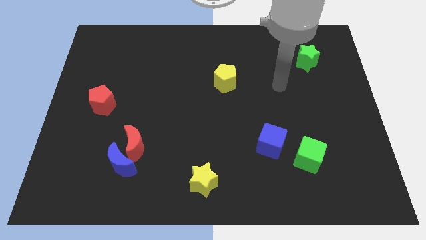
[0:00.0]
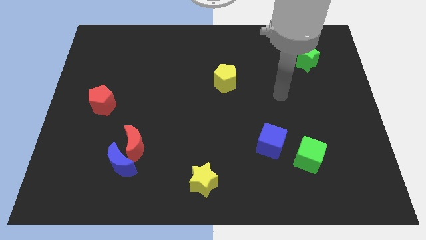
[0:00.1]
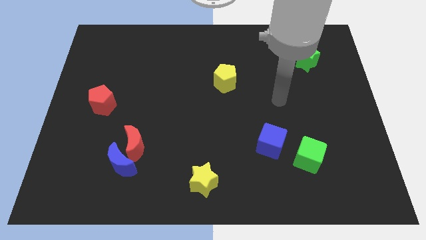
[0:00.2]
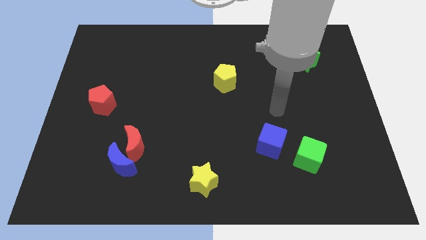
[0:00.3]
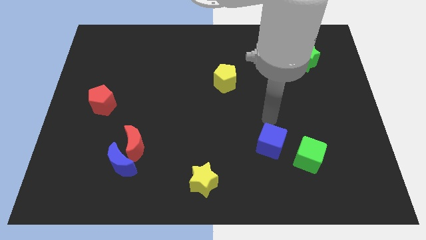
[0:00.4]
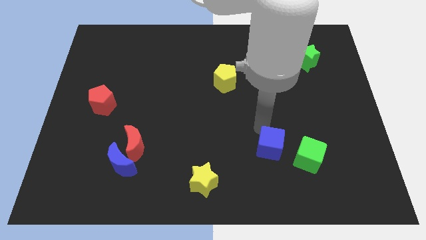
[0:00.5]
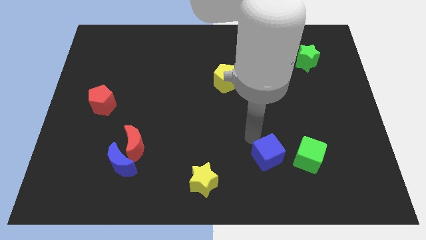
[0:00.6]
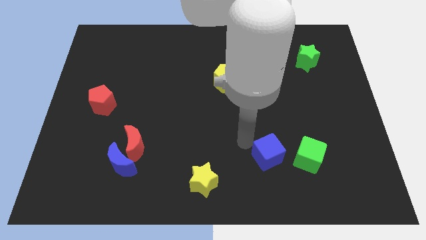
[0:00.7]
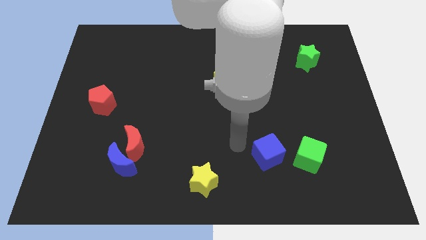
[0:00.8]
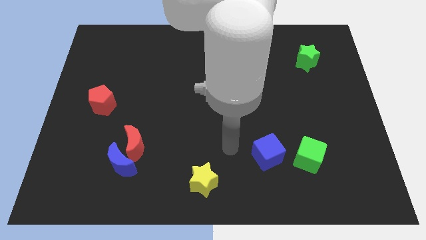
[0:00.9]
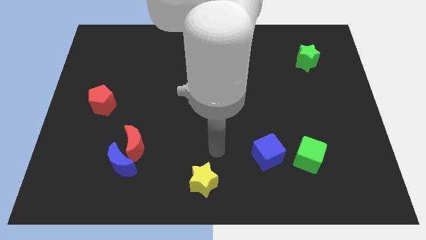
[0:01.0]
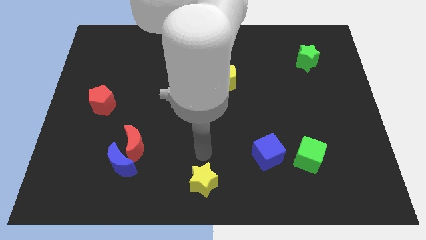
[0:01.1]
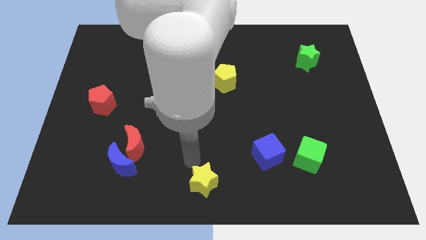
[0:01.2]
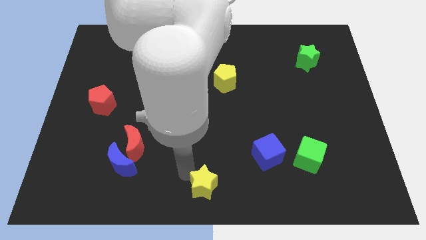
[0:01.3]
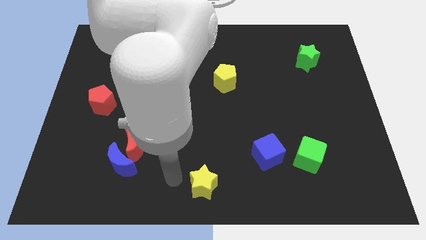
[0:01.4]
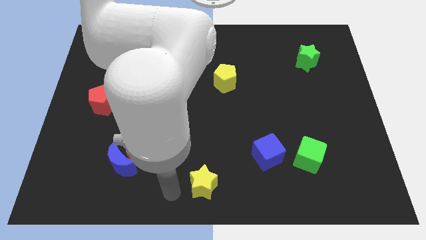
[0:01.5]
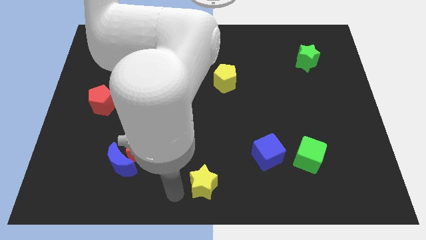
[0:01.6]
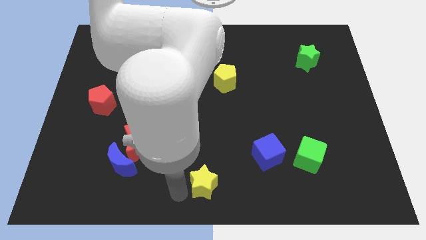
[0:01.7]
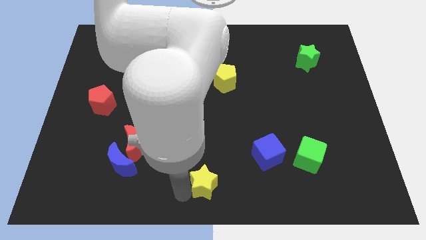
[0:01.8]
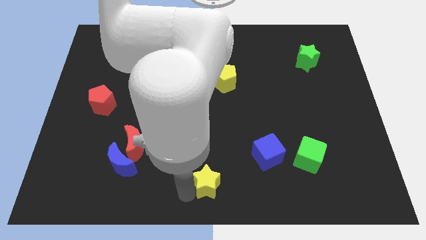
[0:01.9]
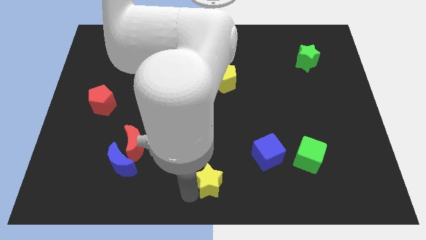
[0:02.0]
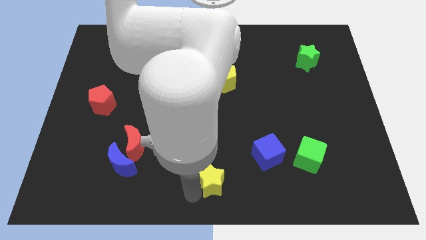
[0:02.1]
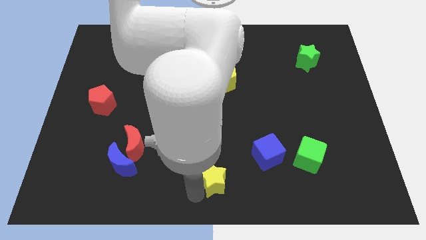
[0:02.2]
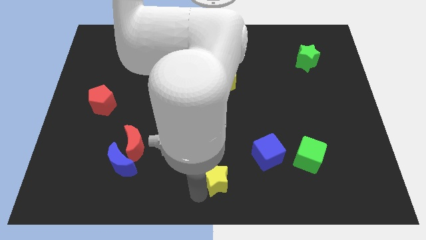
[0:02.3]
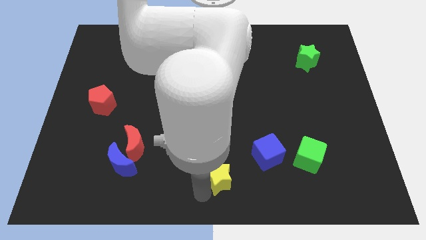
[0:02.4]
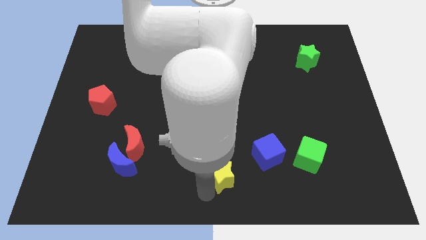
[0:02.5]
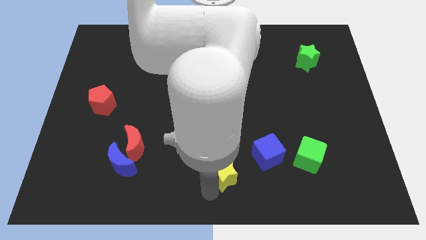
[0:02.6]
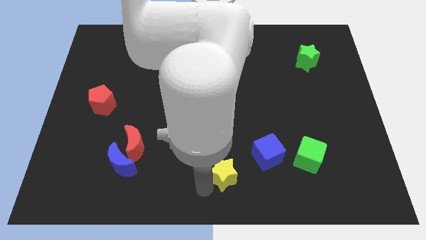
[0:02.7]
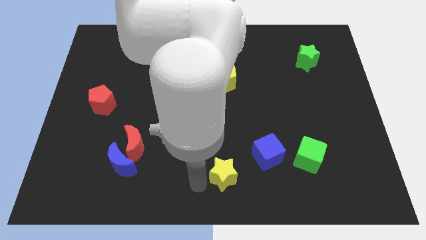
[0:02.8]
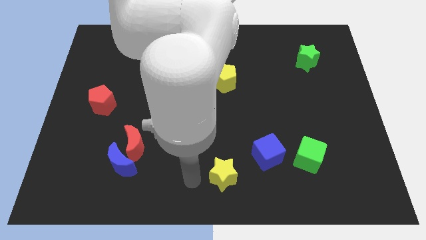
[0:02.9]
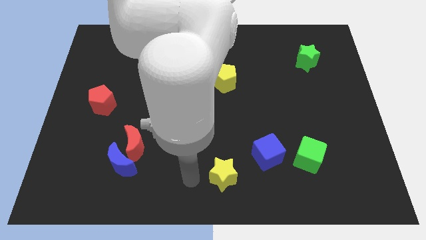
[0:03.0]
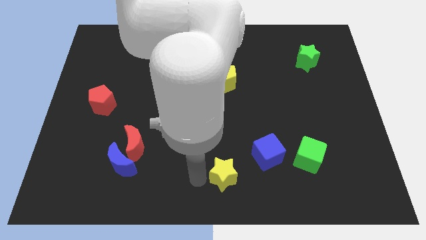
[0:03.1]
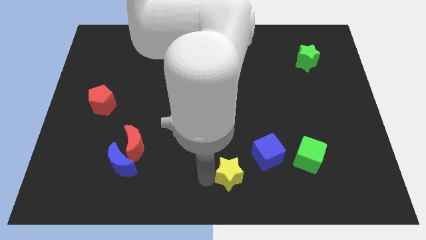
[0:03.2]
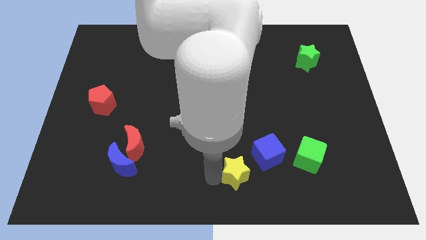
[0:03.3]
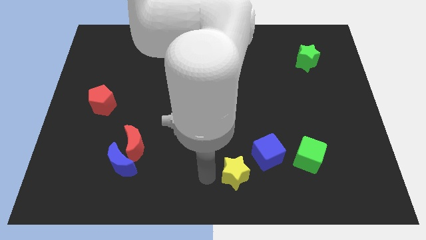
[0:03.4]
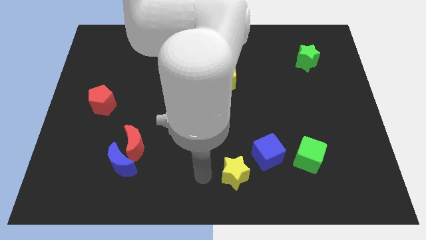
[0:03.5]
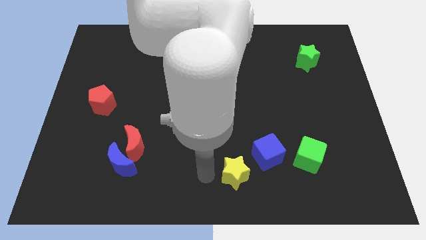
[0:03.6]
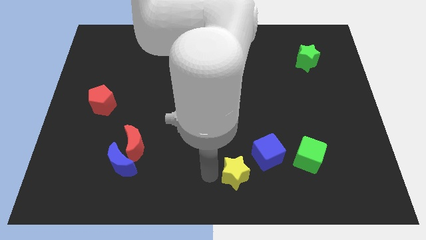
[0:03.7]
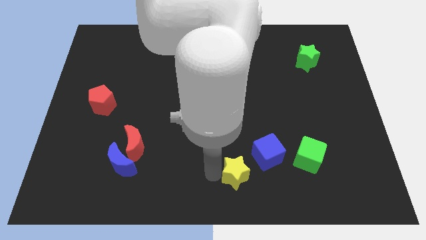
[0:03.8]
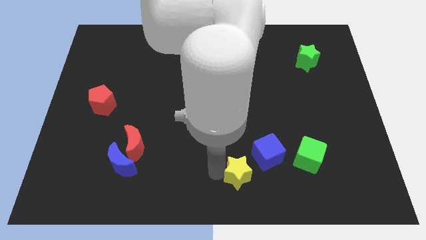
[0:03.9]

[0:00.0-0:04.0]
slide the yellow star right a little

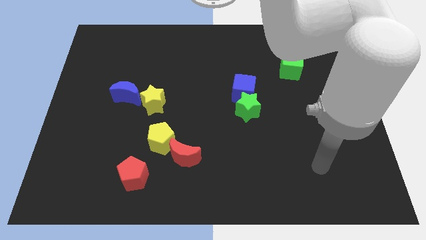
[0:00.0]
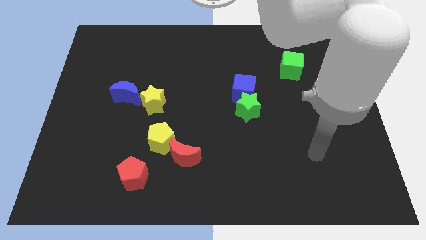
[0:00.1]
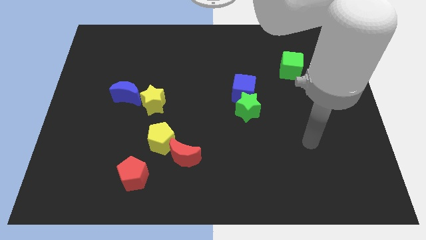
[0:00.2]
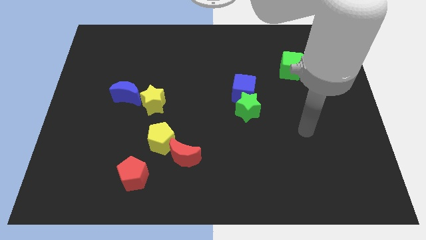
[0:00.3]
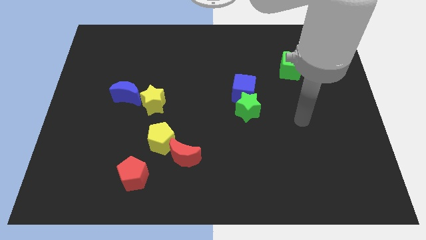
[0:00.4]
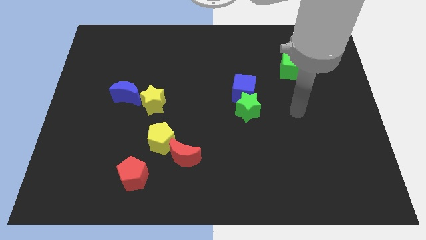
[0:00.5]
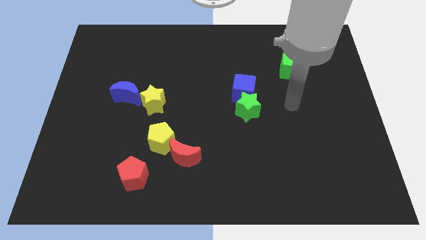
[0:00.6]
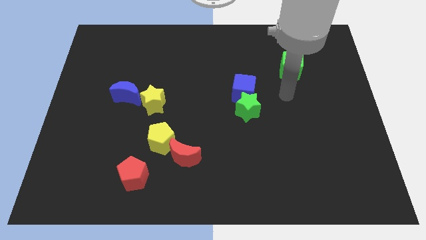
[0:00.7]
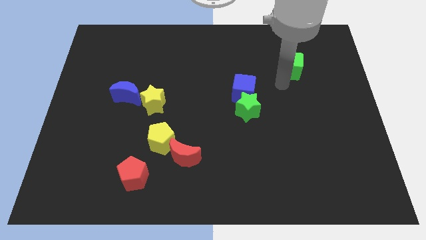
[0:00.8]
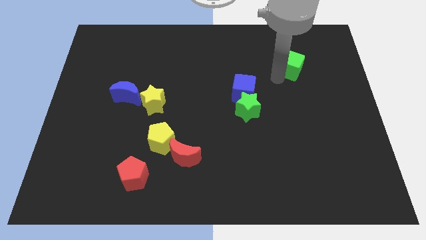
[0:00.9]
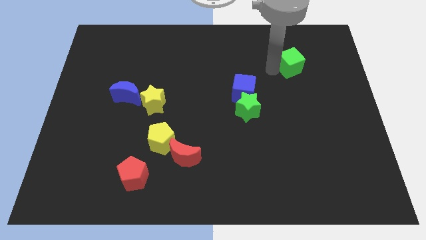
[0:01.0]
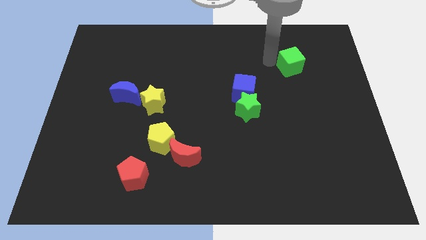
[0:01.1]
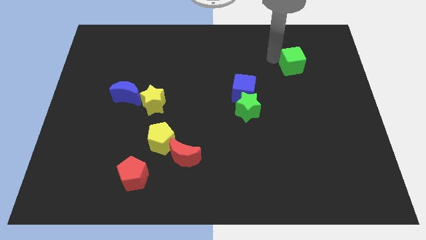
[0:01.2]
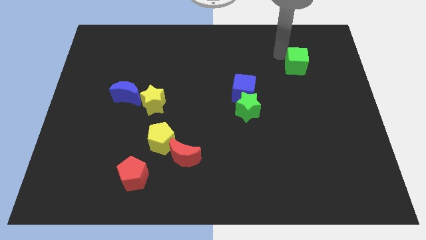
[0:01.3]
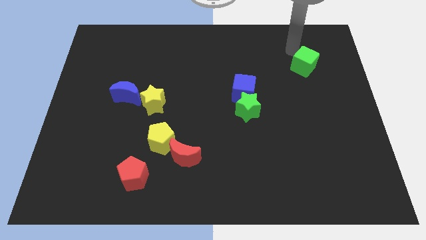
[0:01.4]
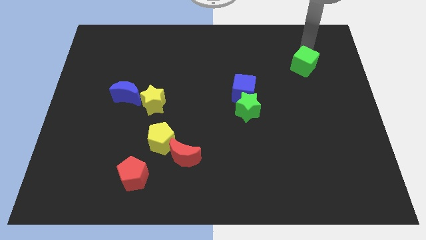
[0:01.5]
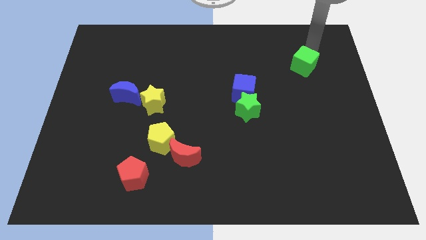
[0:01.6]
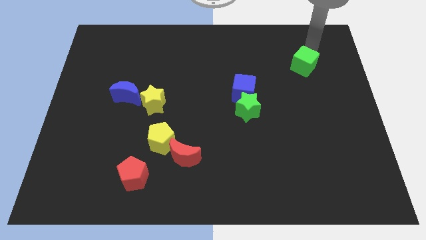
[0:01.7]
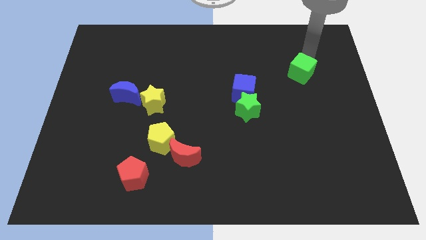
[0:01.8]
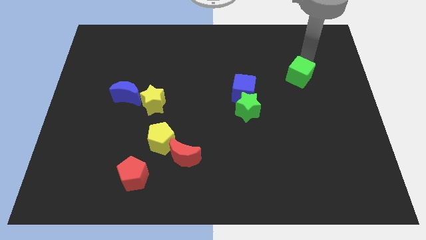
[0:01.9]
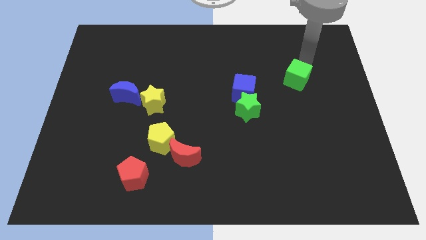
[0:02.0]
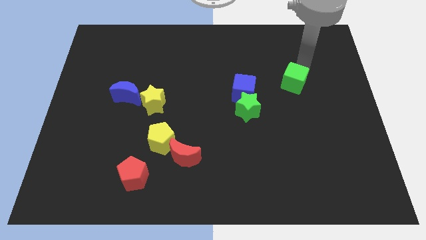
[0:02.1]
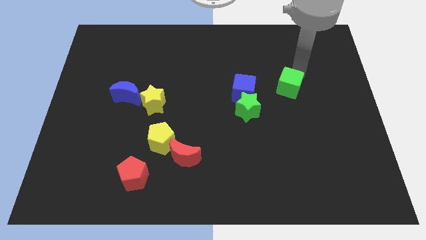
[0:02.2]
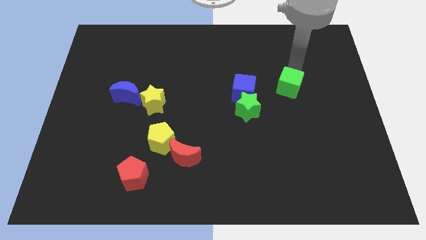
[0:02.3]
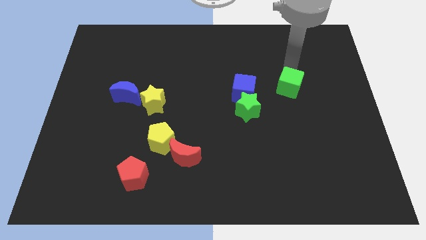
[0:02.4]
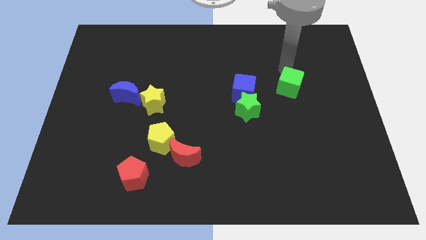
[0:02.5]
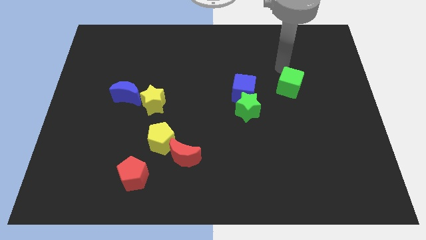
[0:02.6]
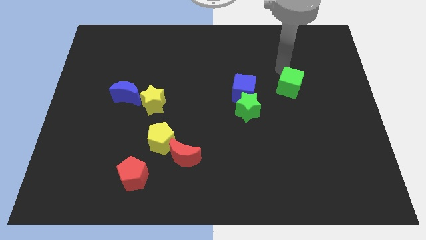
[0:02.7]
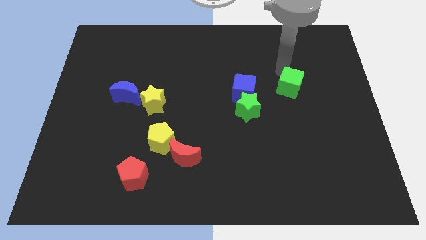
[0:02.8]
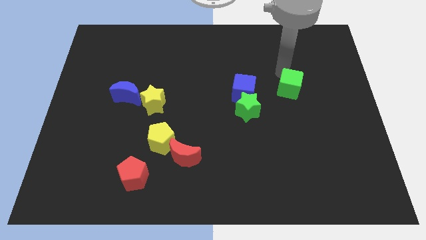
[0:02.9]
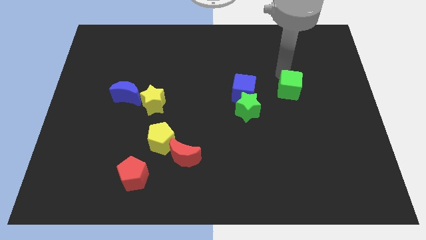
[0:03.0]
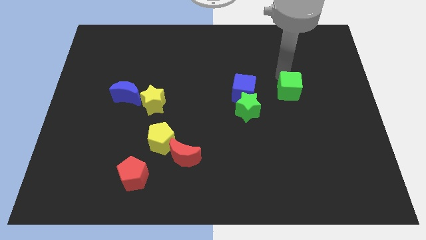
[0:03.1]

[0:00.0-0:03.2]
move the green cube somewhat downwards

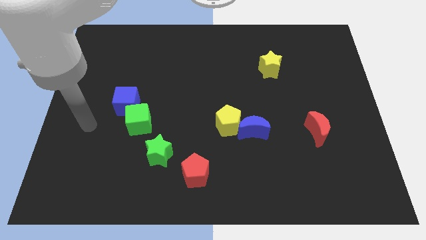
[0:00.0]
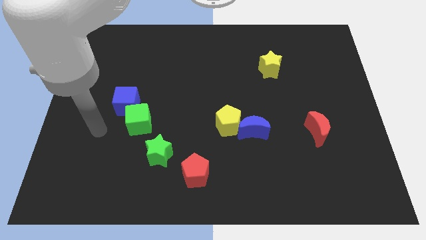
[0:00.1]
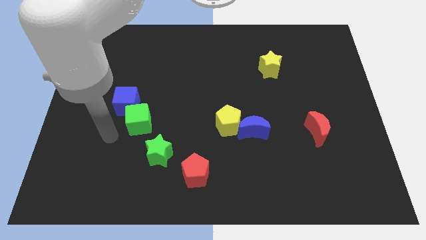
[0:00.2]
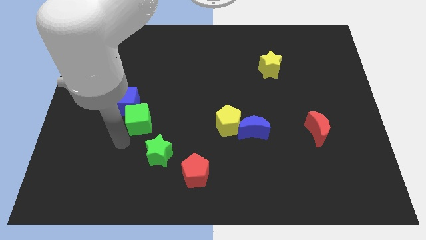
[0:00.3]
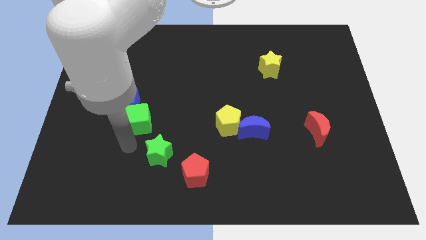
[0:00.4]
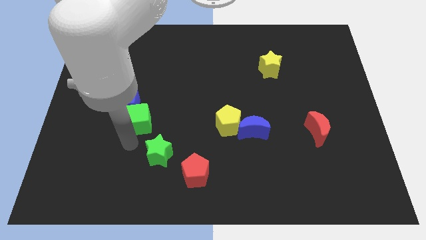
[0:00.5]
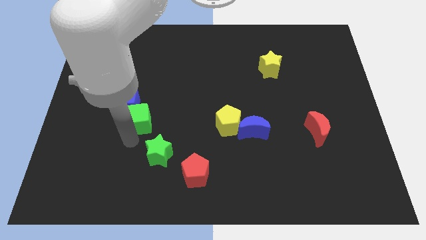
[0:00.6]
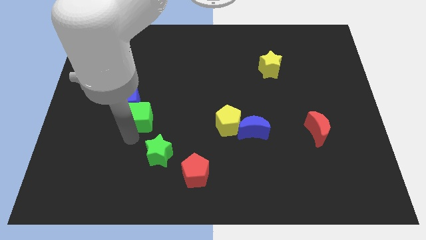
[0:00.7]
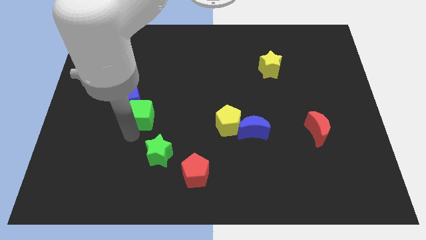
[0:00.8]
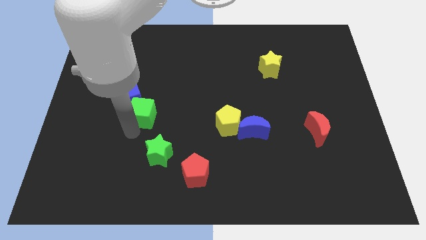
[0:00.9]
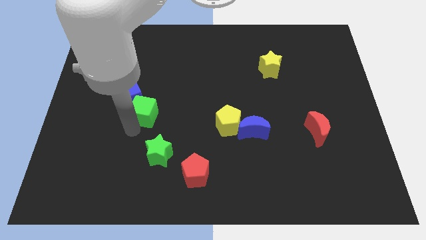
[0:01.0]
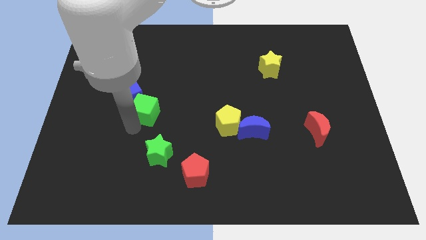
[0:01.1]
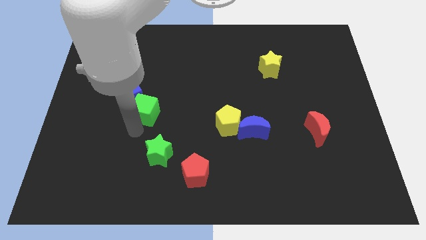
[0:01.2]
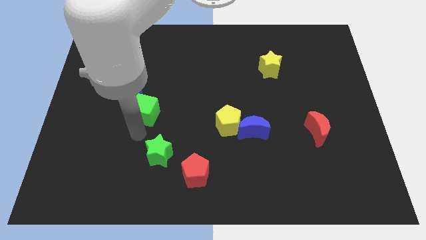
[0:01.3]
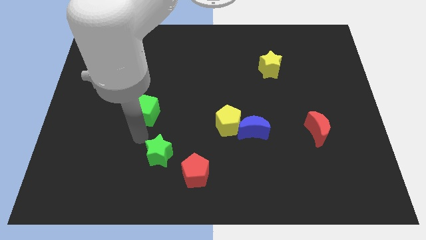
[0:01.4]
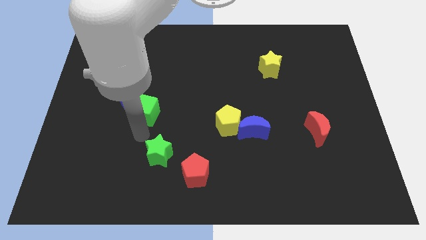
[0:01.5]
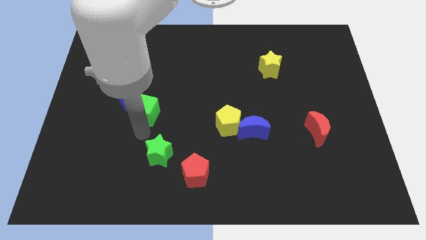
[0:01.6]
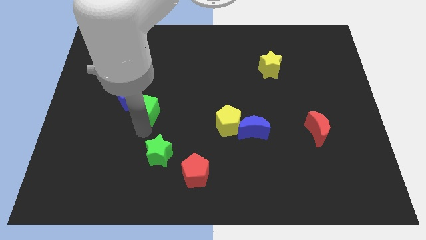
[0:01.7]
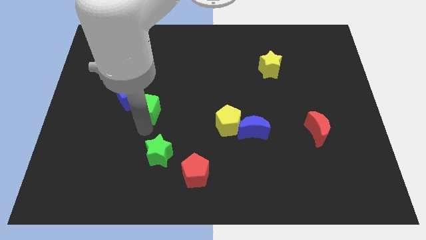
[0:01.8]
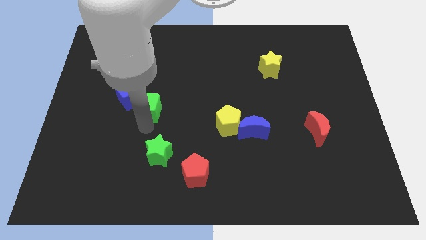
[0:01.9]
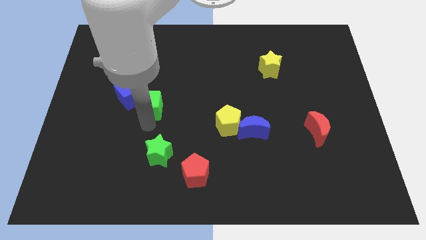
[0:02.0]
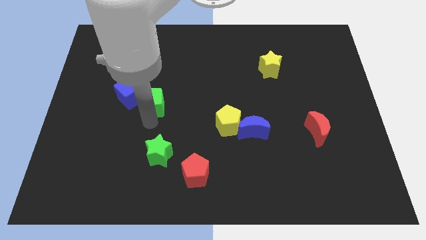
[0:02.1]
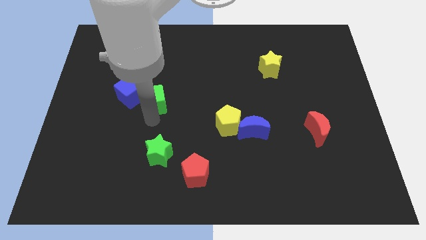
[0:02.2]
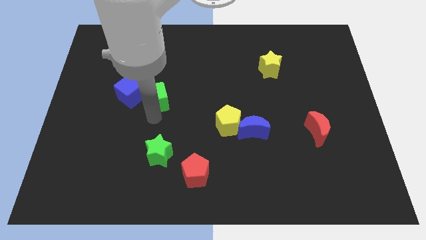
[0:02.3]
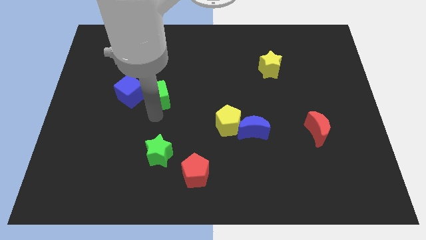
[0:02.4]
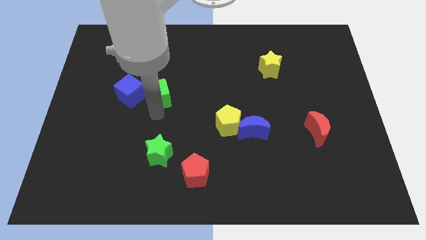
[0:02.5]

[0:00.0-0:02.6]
slide the green cube upwards a bit
